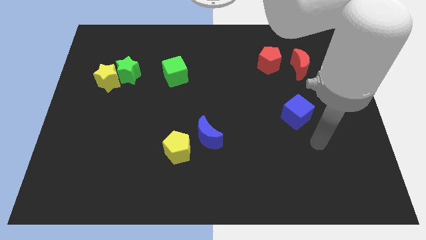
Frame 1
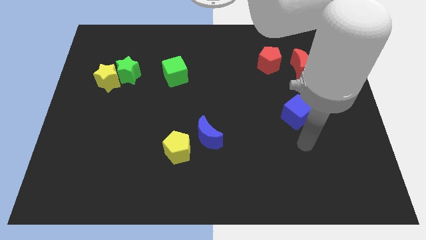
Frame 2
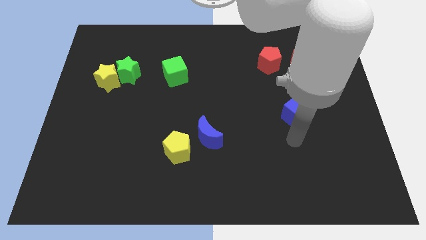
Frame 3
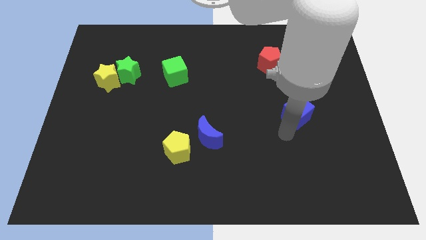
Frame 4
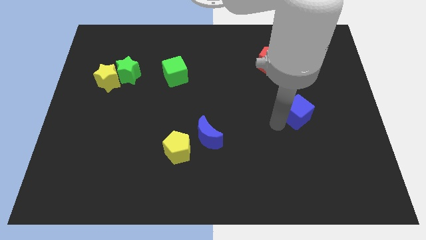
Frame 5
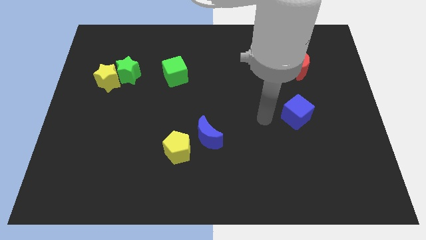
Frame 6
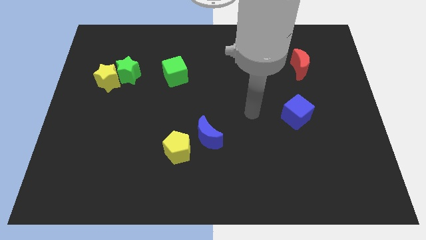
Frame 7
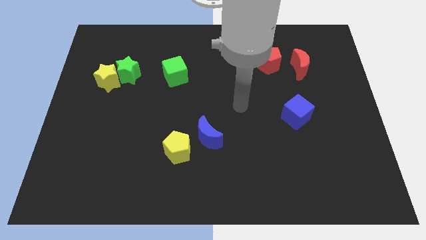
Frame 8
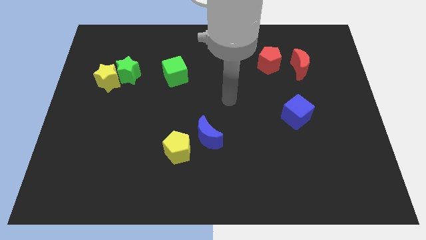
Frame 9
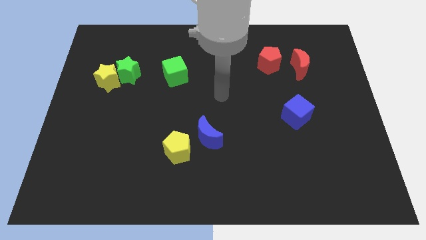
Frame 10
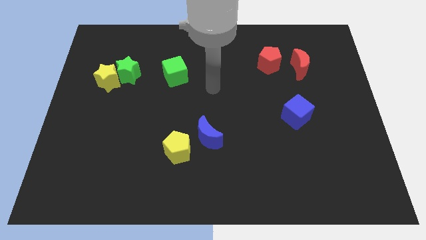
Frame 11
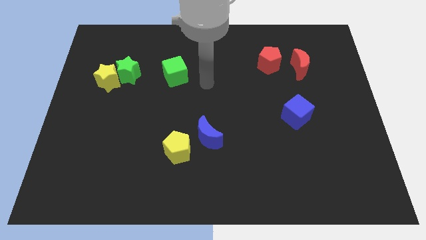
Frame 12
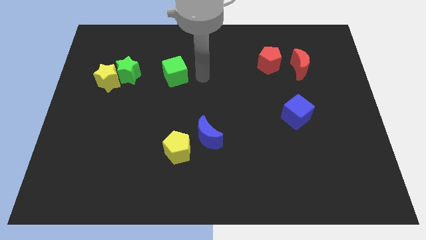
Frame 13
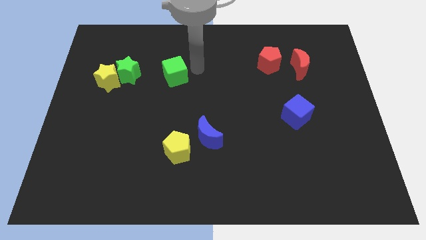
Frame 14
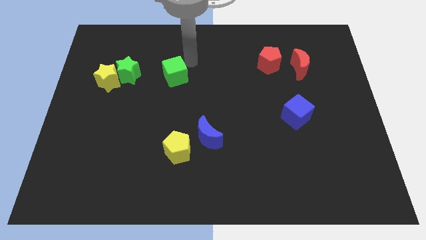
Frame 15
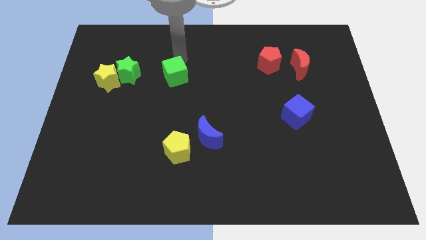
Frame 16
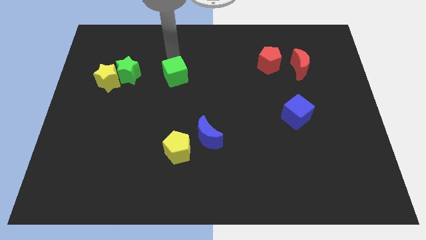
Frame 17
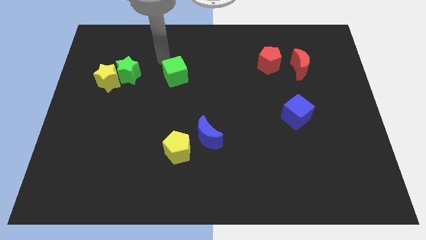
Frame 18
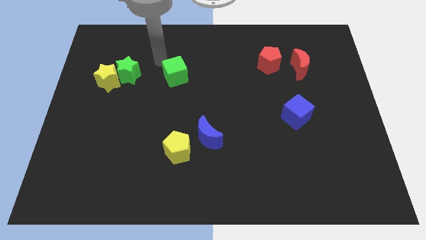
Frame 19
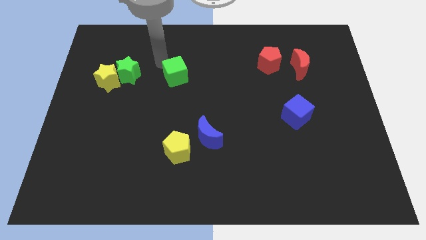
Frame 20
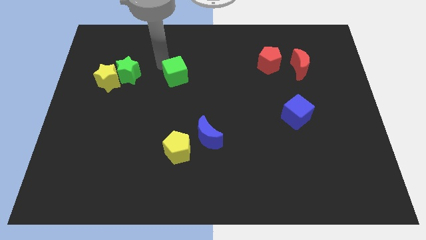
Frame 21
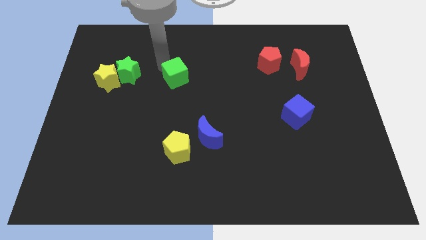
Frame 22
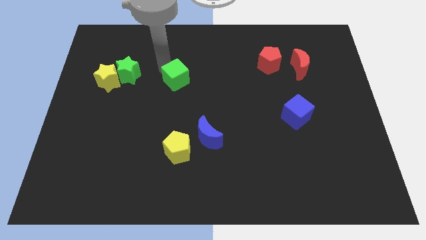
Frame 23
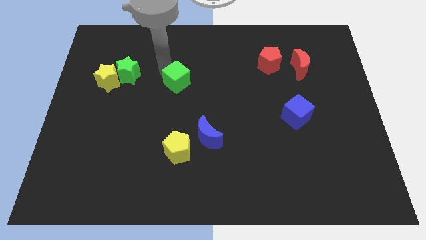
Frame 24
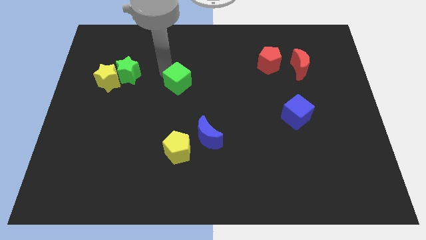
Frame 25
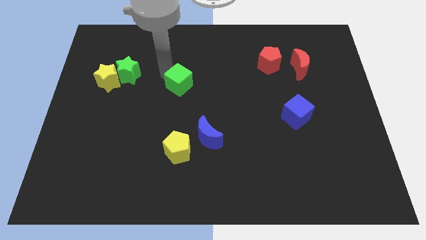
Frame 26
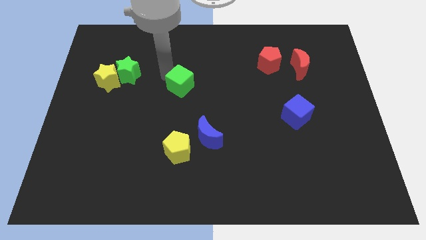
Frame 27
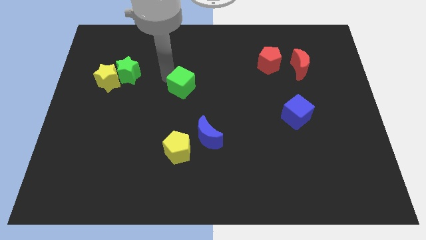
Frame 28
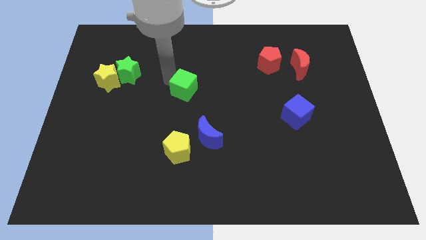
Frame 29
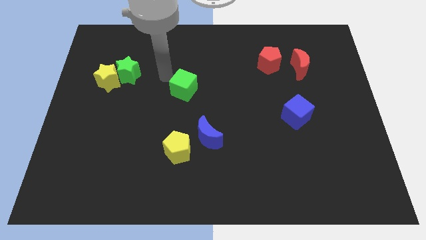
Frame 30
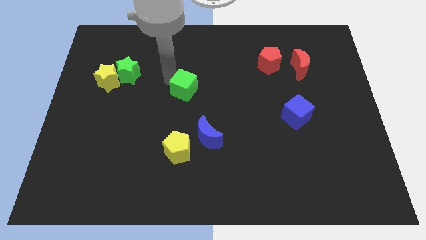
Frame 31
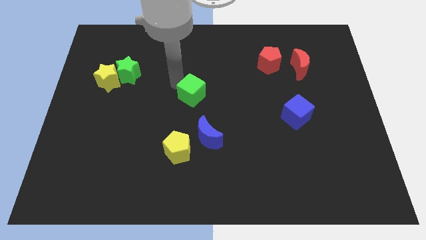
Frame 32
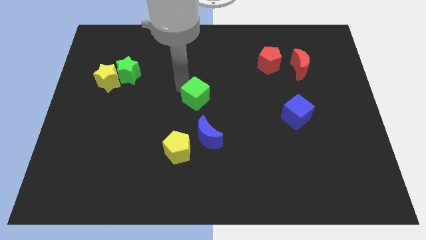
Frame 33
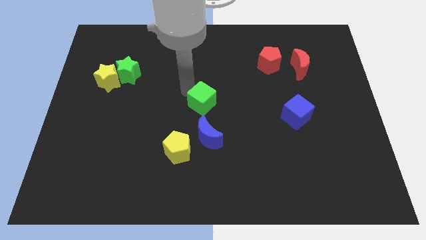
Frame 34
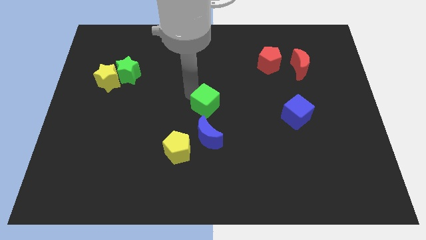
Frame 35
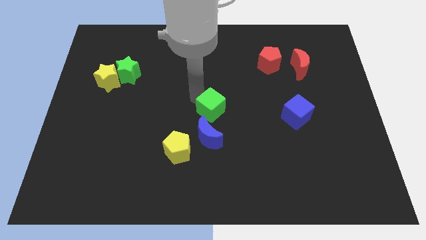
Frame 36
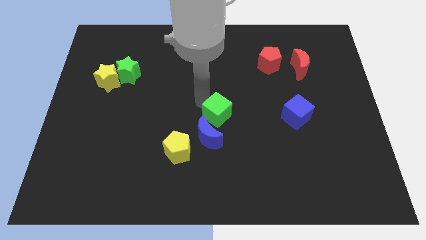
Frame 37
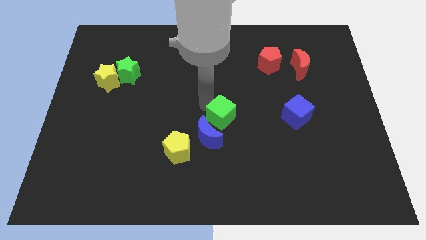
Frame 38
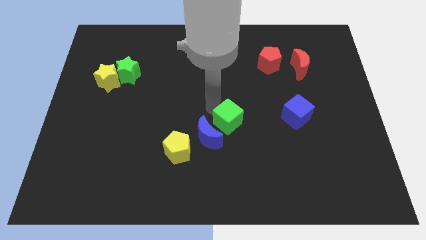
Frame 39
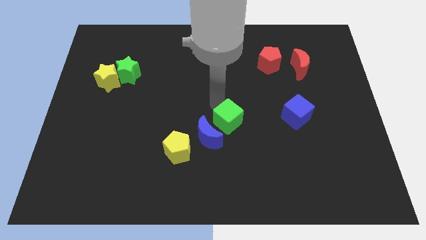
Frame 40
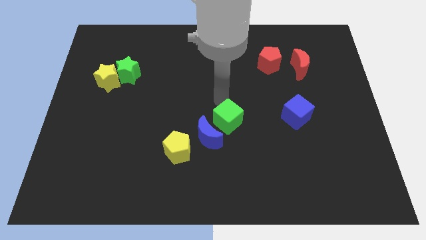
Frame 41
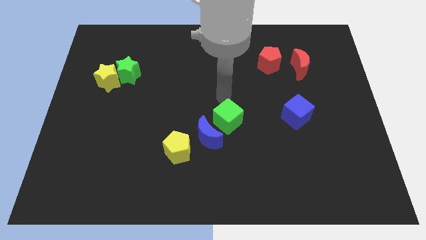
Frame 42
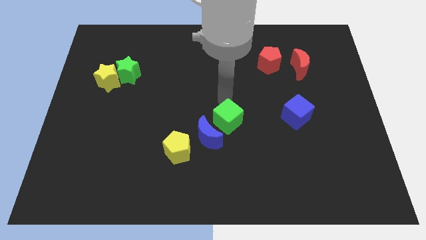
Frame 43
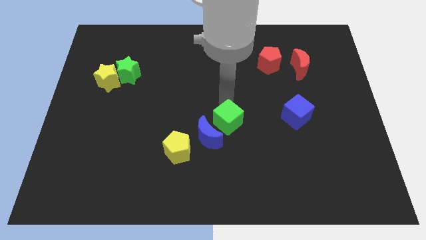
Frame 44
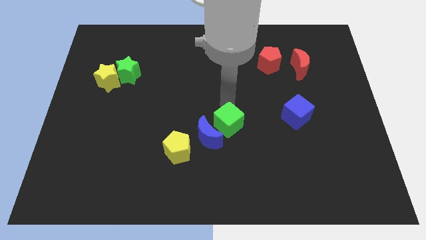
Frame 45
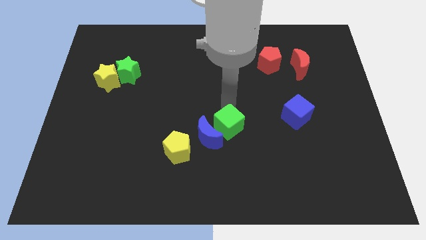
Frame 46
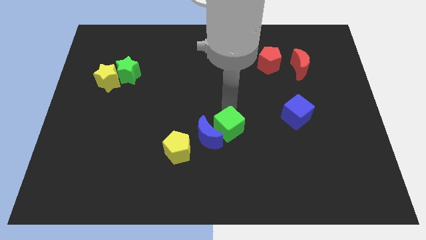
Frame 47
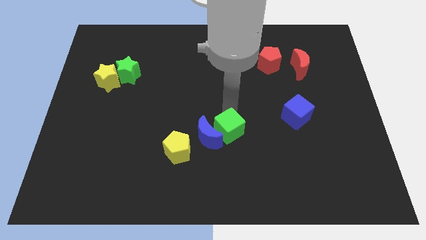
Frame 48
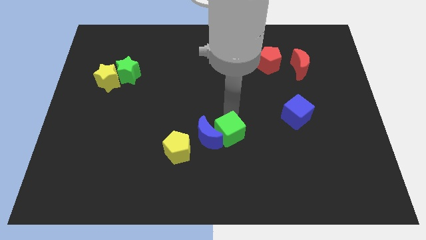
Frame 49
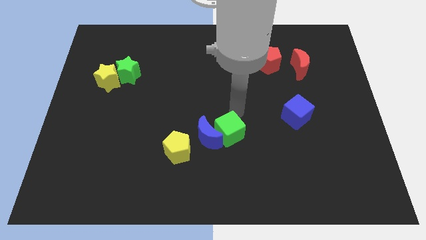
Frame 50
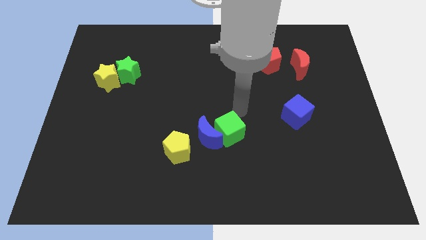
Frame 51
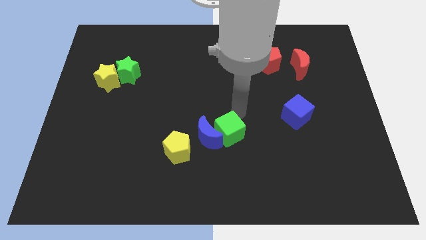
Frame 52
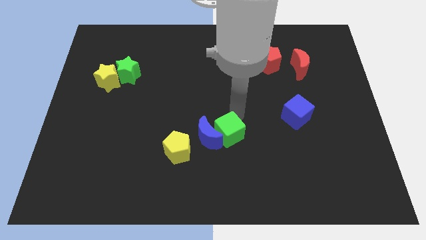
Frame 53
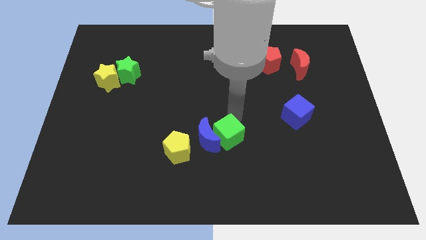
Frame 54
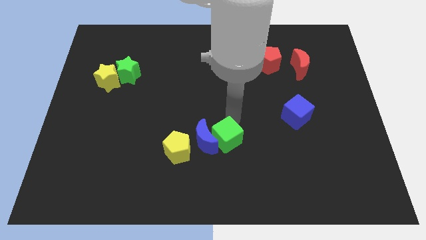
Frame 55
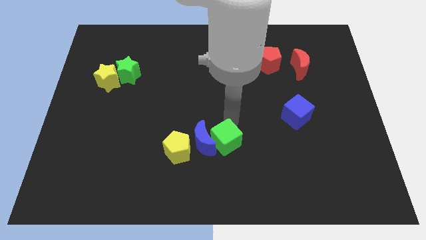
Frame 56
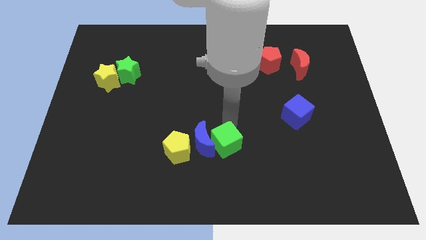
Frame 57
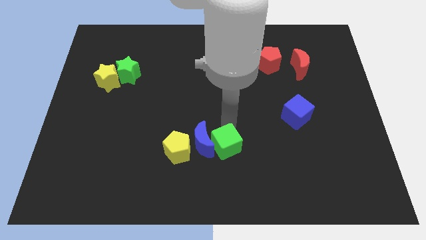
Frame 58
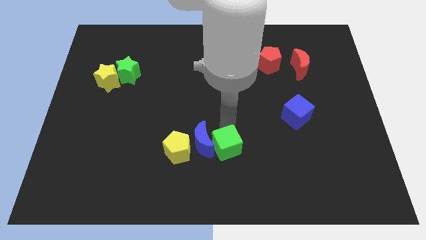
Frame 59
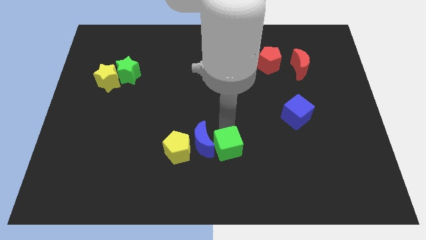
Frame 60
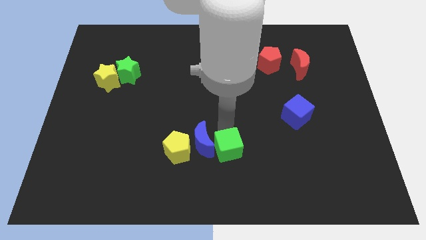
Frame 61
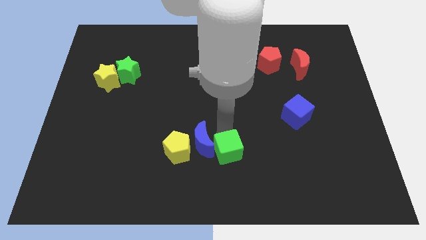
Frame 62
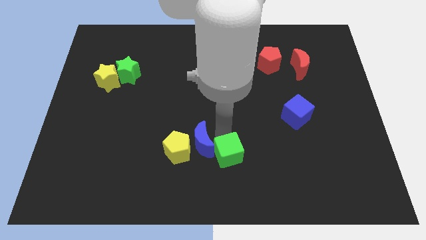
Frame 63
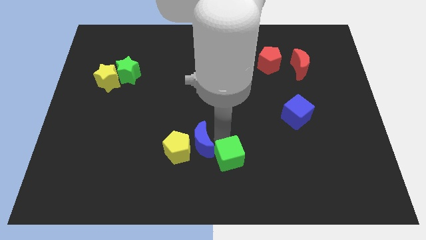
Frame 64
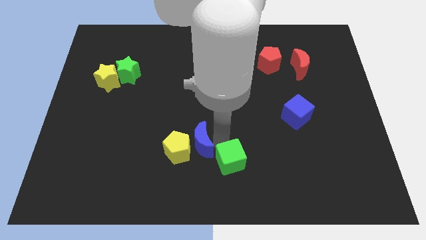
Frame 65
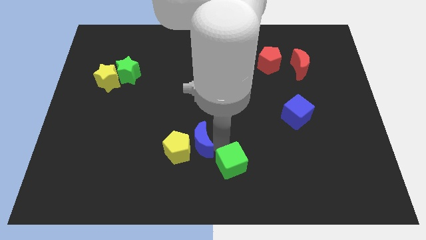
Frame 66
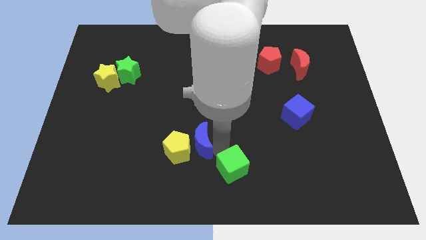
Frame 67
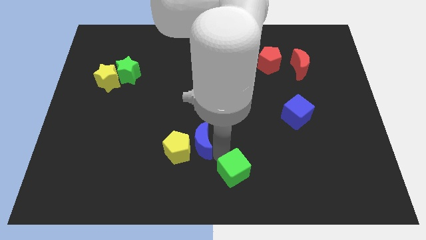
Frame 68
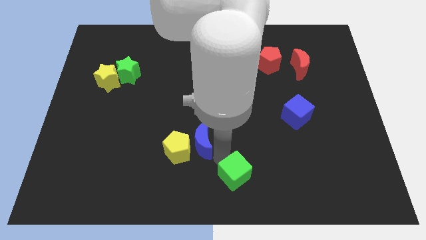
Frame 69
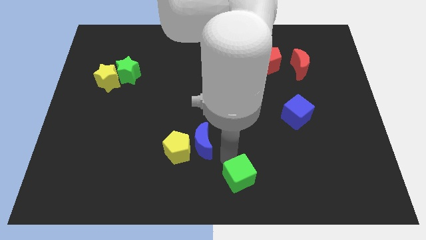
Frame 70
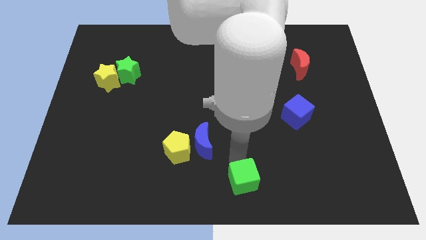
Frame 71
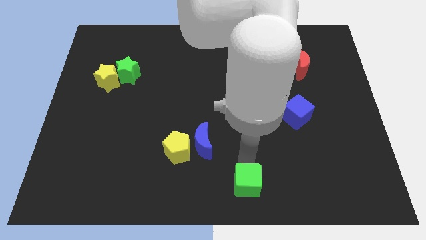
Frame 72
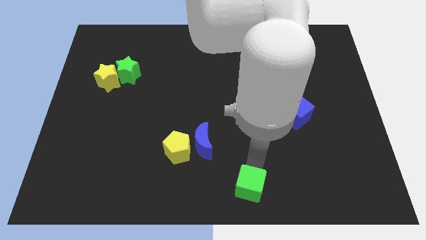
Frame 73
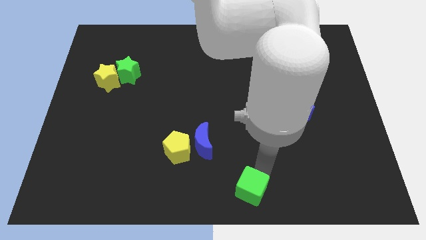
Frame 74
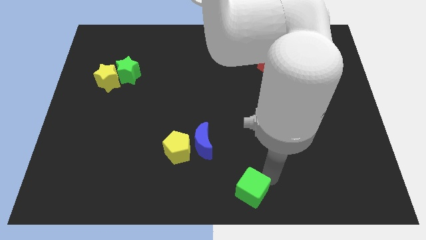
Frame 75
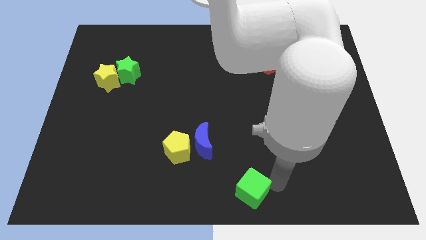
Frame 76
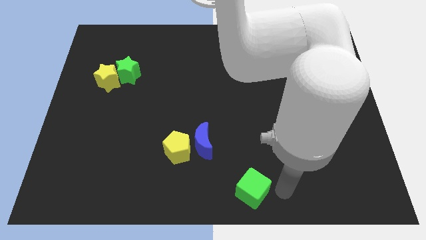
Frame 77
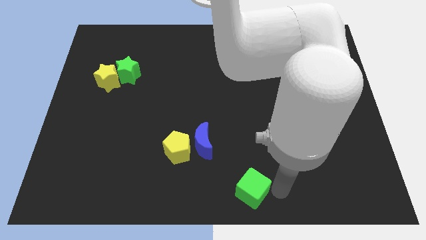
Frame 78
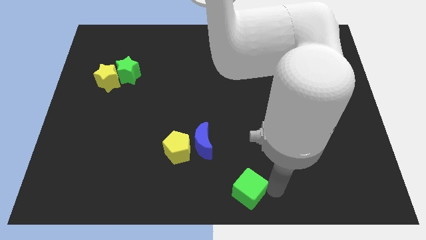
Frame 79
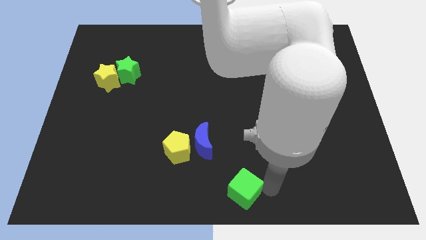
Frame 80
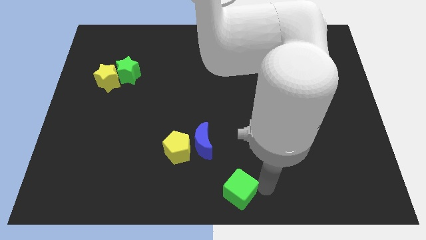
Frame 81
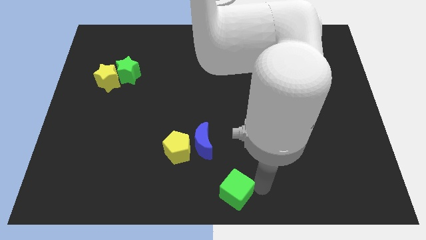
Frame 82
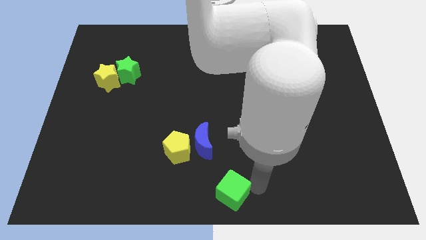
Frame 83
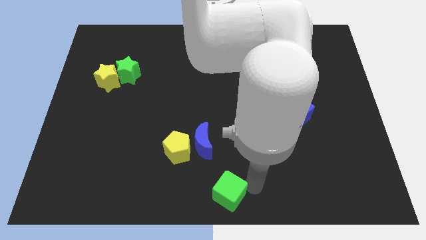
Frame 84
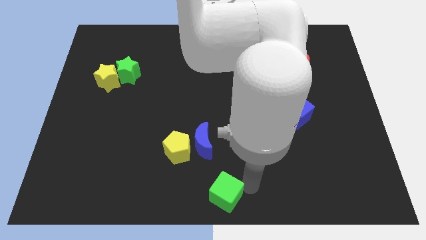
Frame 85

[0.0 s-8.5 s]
slide the green cube to the bottom side of the blue moon

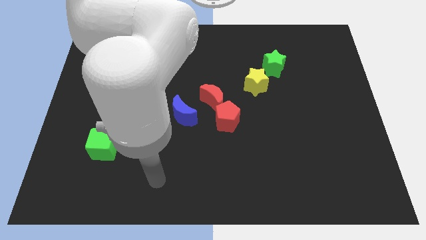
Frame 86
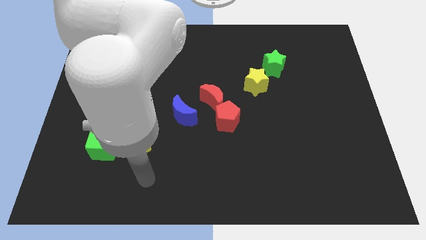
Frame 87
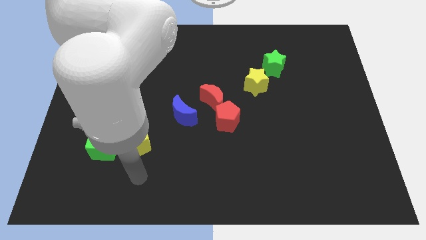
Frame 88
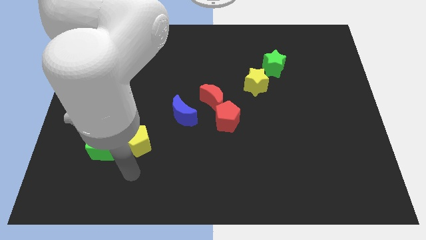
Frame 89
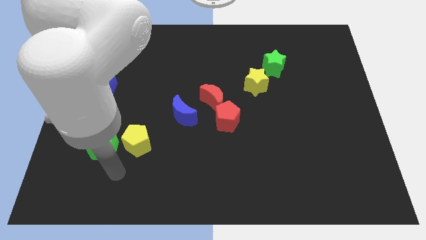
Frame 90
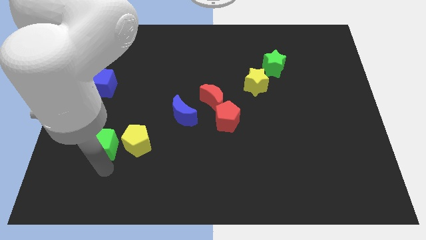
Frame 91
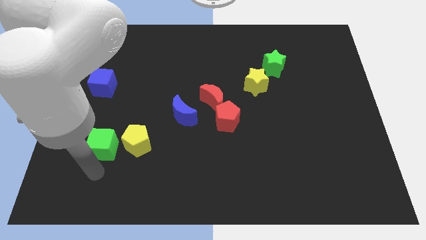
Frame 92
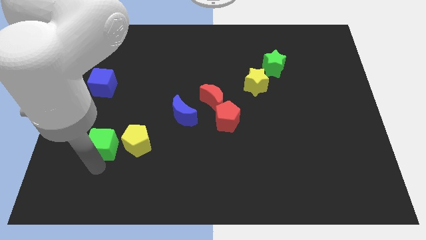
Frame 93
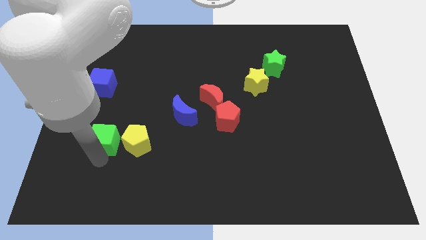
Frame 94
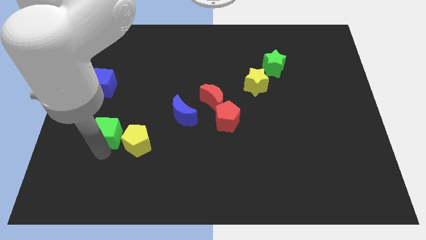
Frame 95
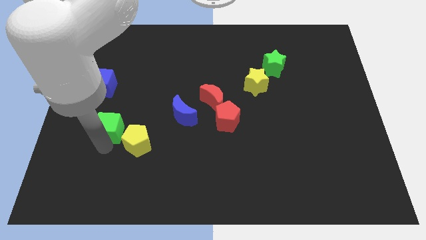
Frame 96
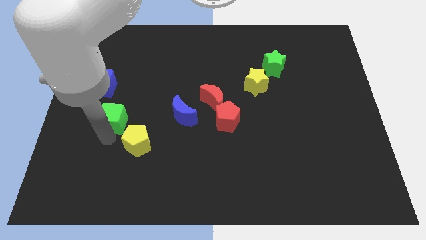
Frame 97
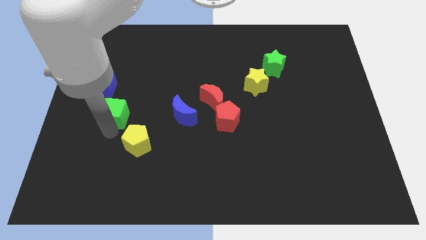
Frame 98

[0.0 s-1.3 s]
move the green cube to the bottom right of the blue cube
